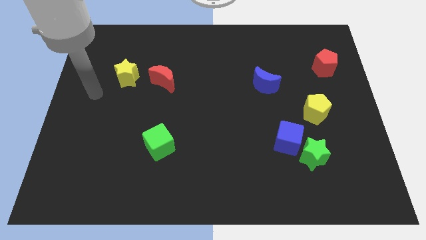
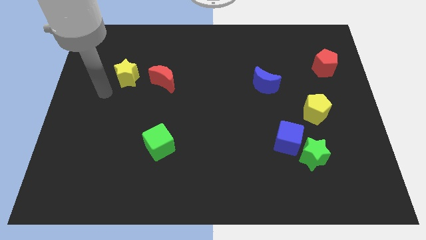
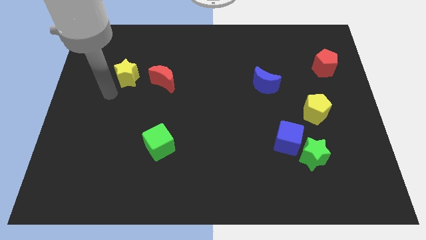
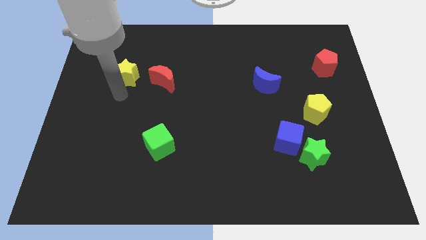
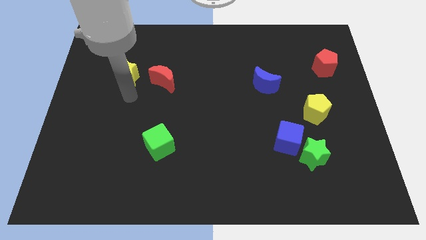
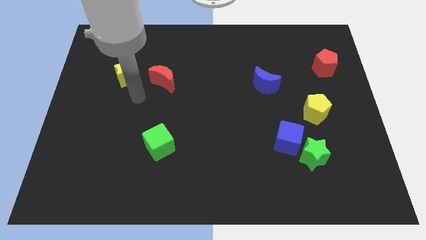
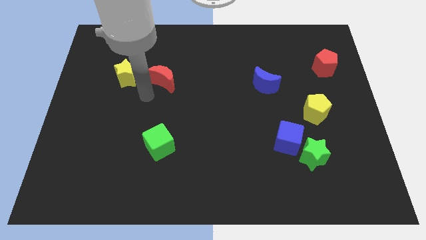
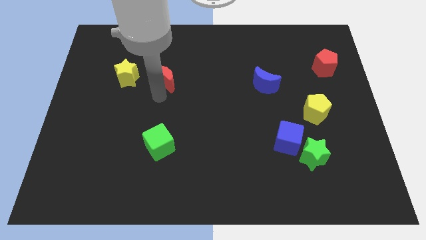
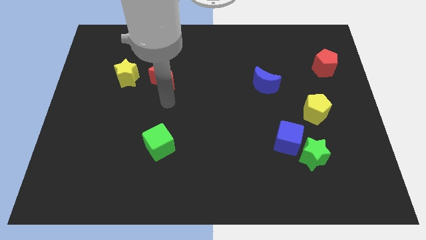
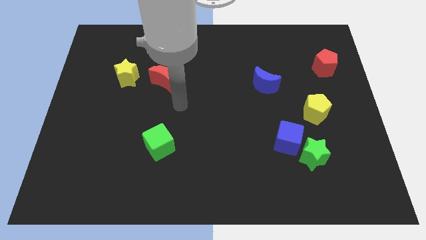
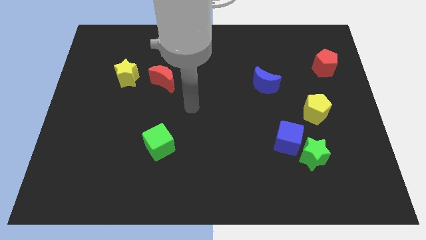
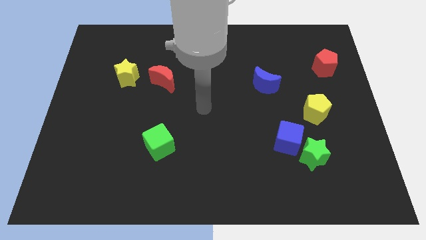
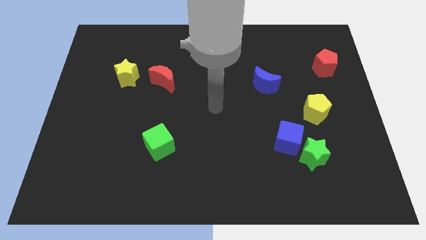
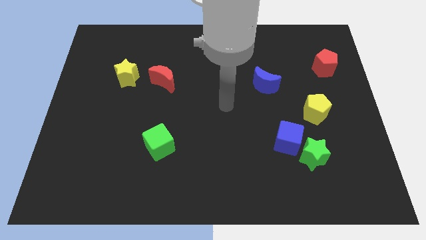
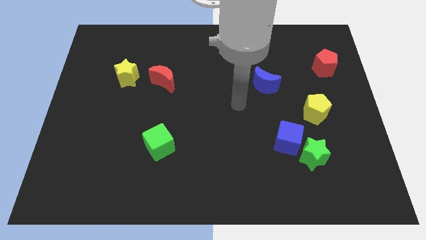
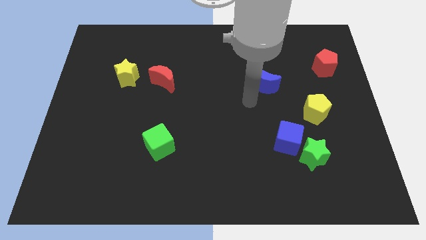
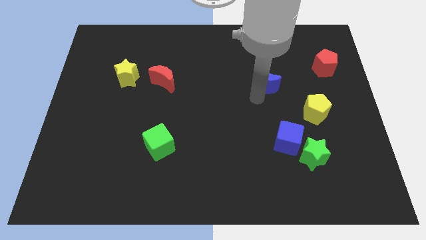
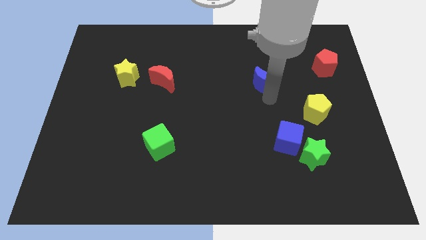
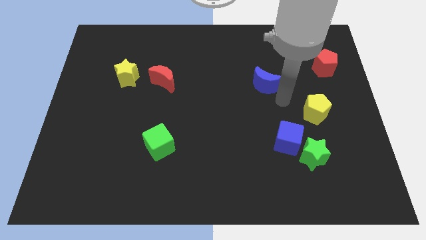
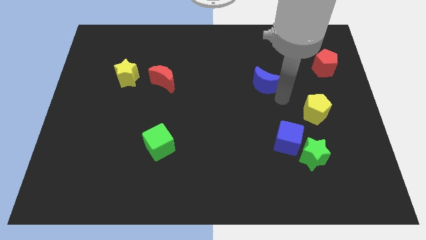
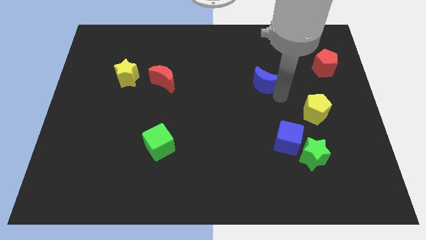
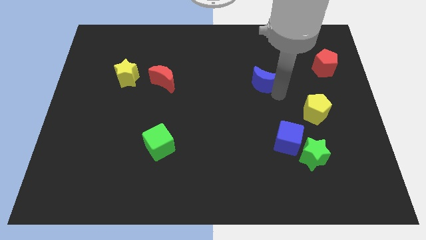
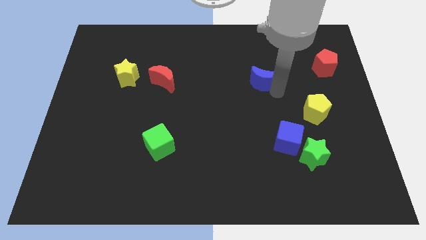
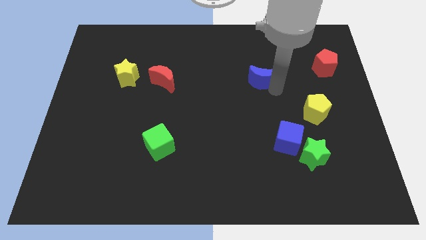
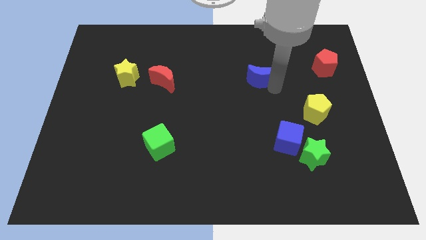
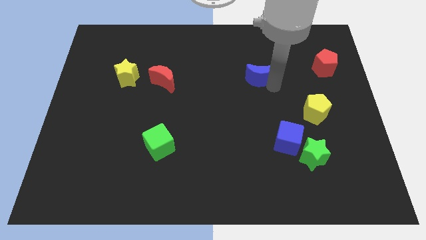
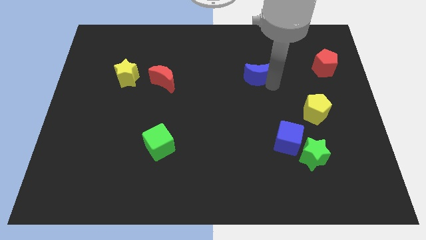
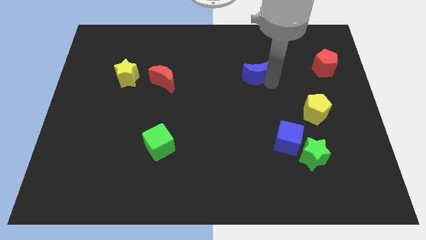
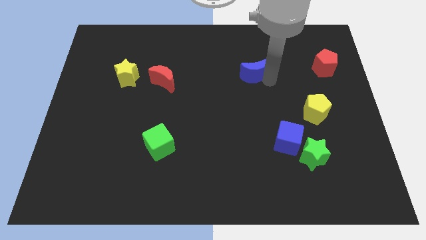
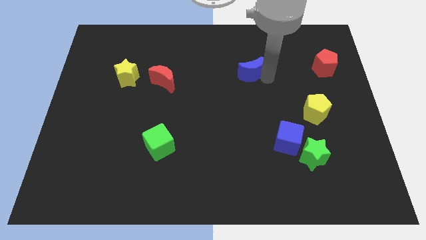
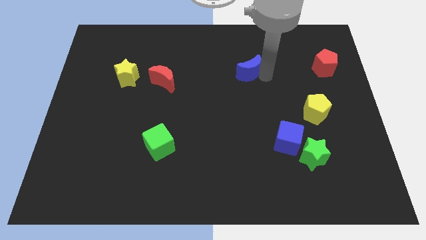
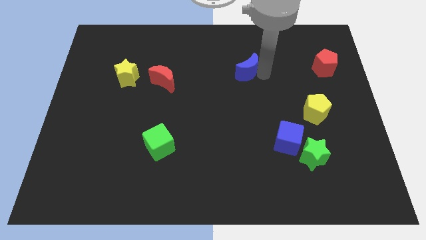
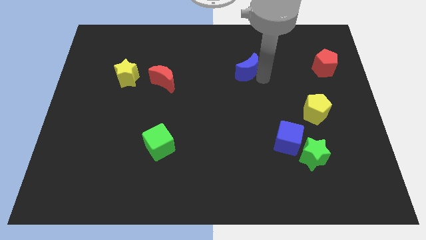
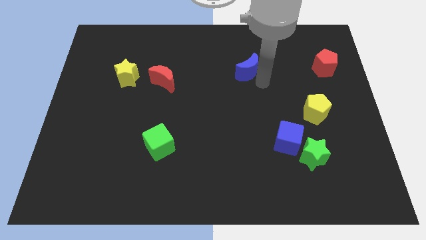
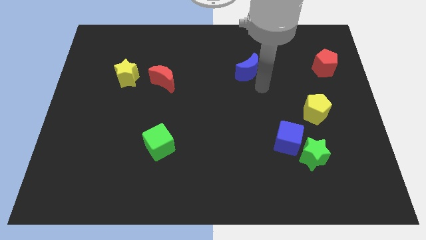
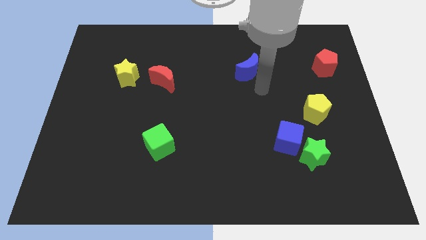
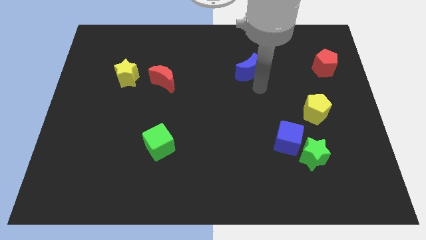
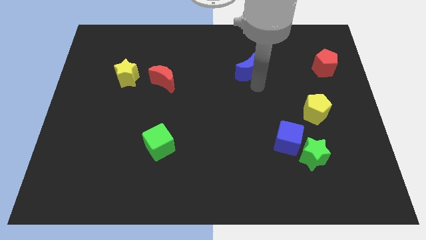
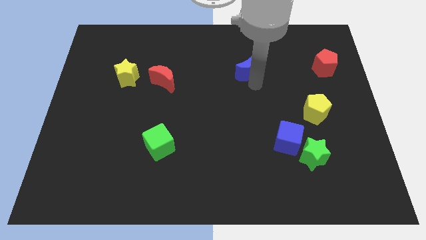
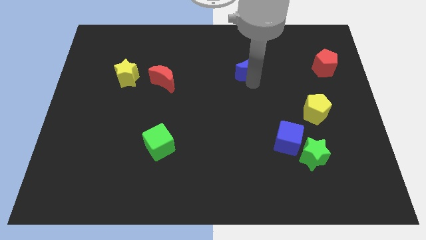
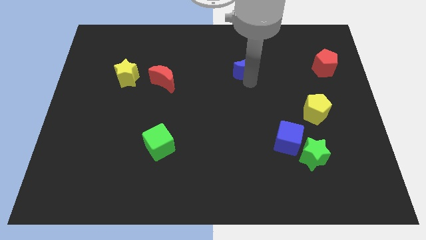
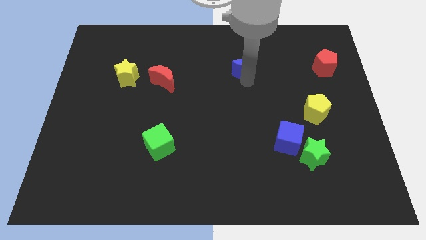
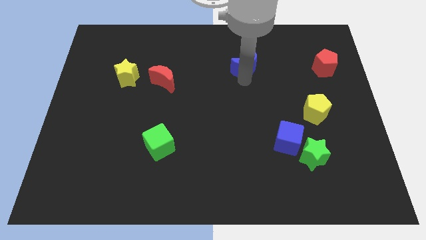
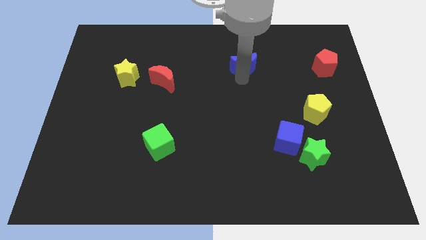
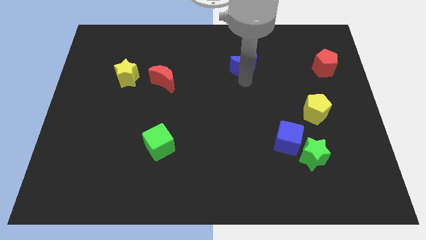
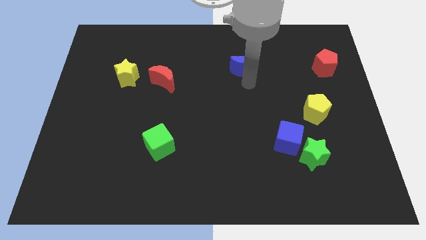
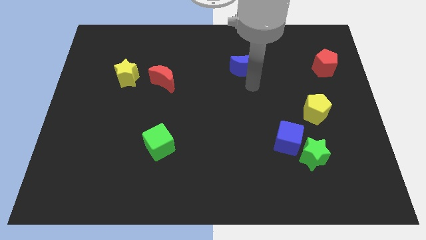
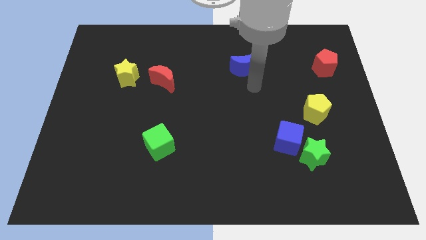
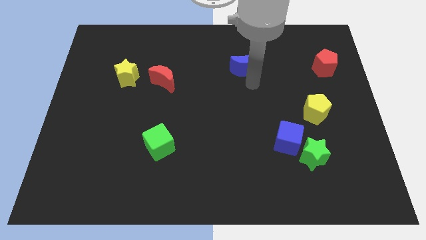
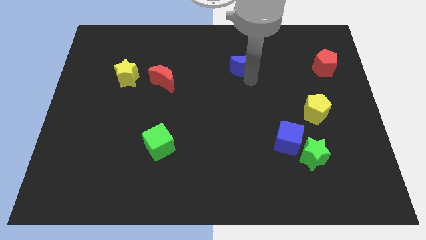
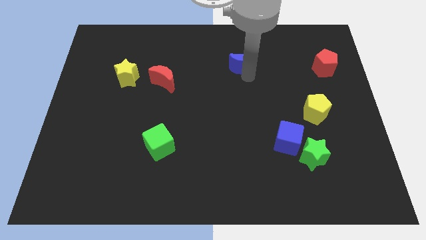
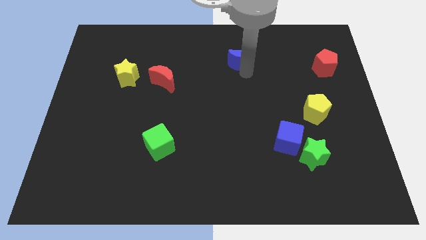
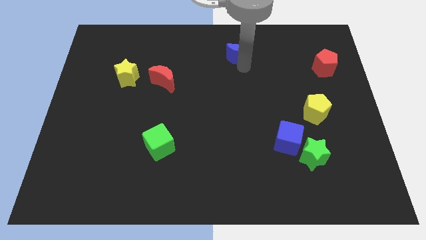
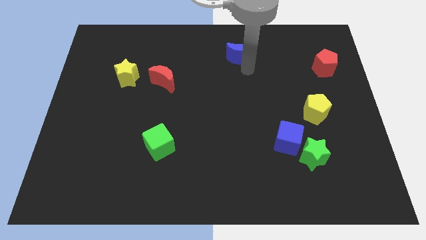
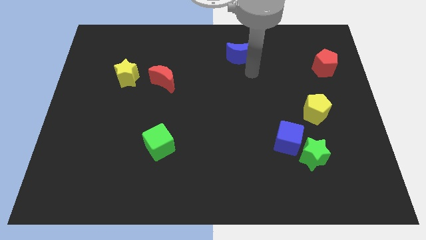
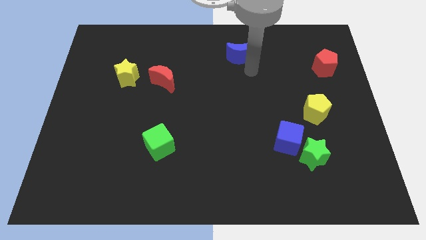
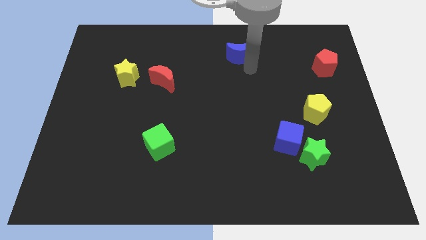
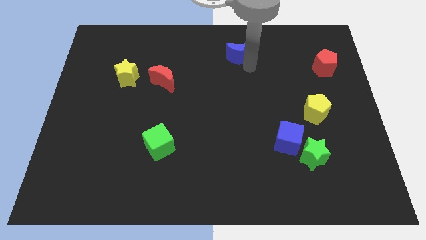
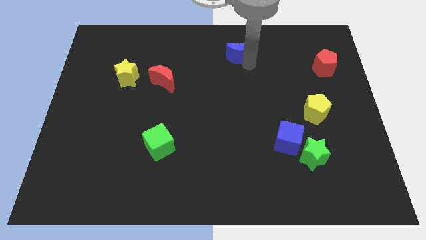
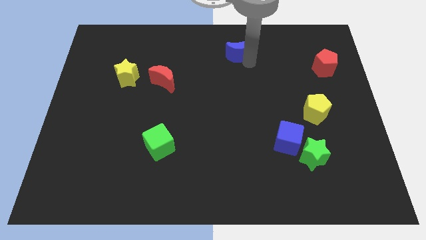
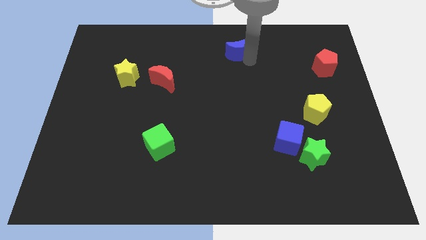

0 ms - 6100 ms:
push the blue moon to the towards your base

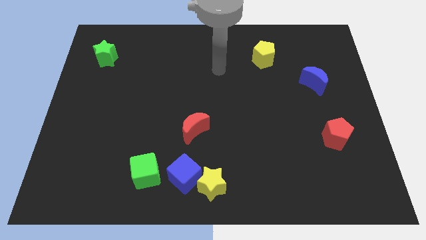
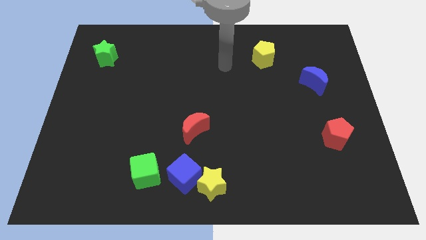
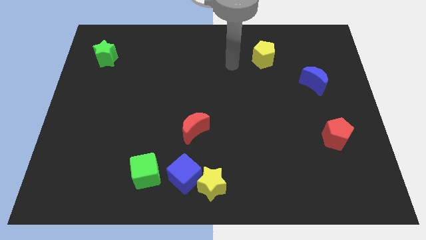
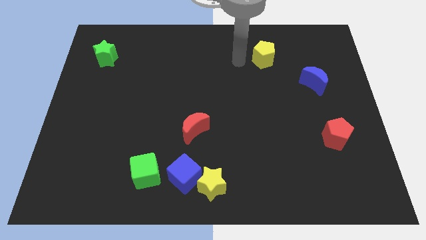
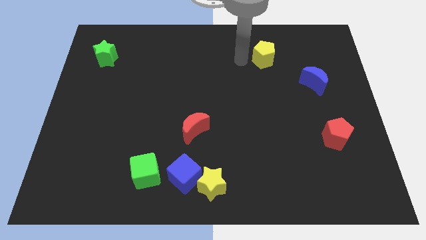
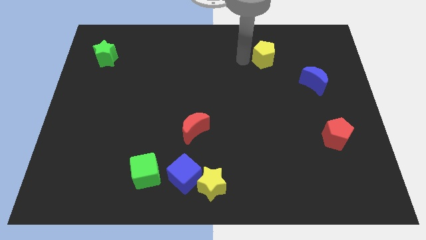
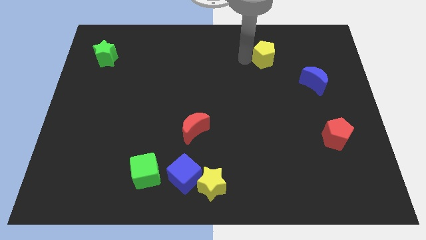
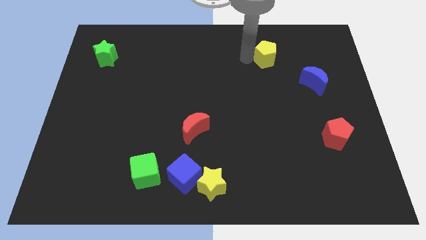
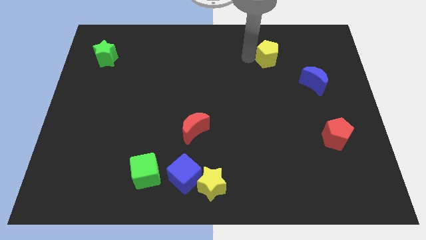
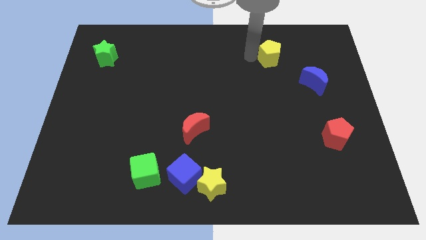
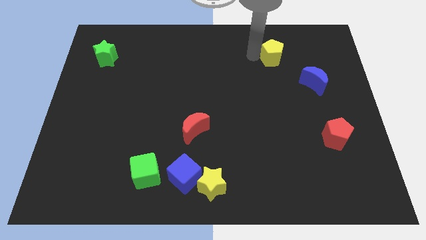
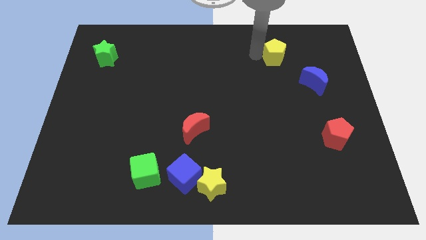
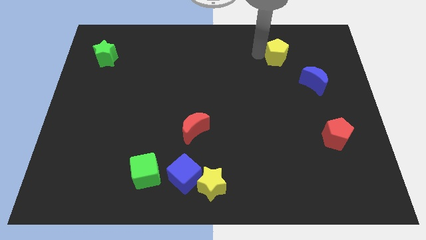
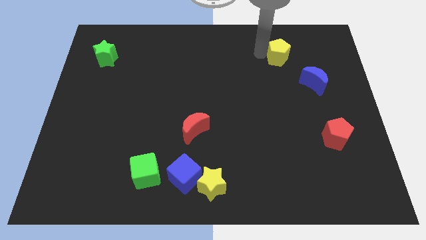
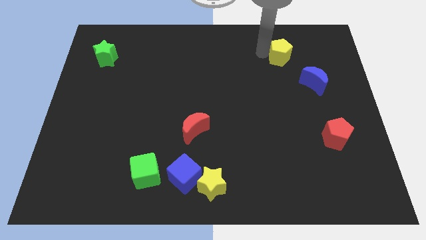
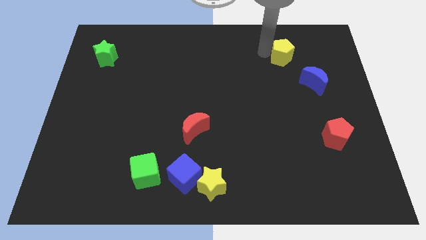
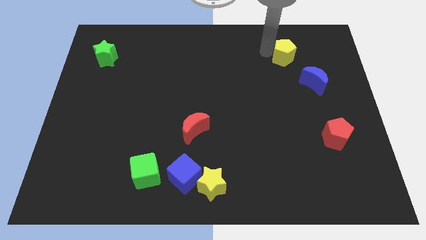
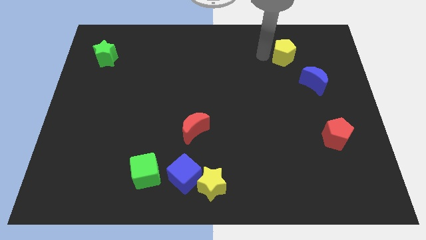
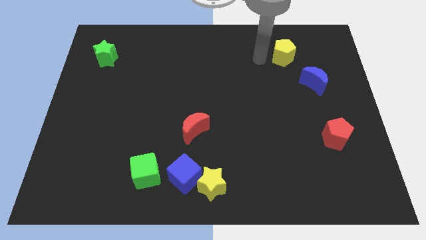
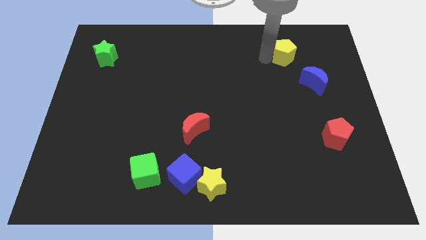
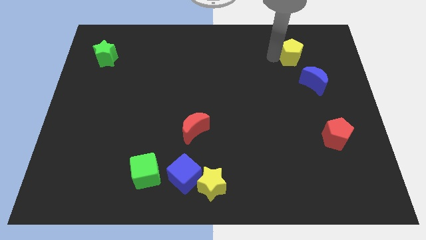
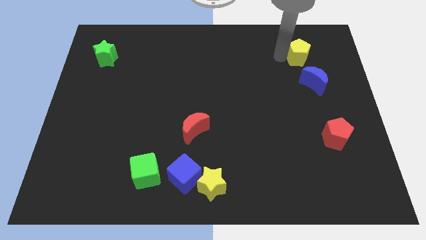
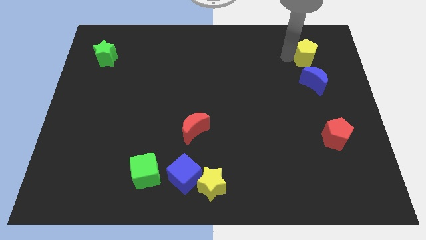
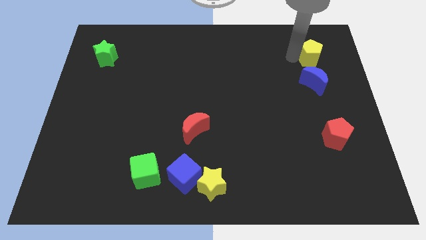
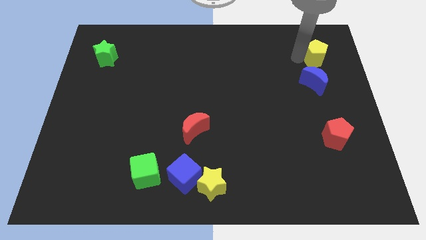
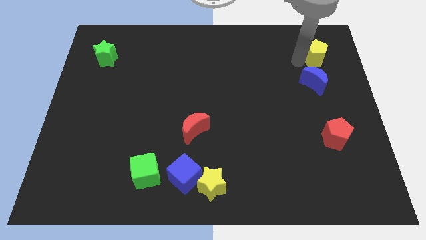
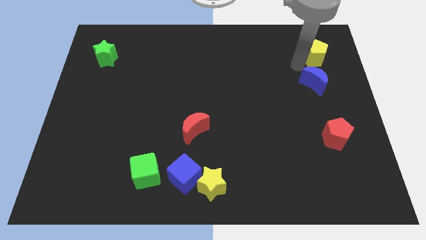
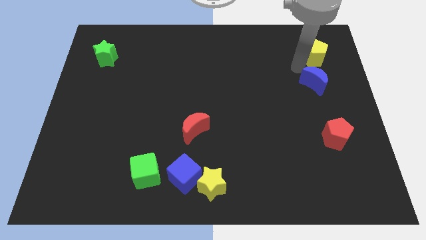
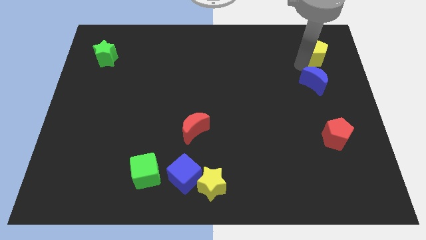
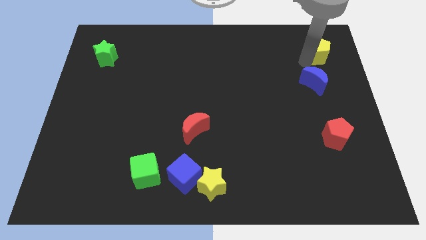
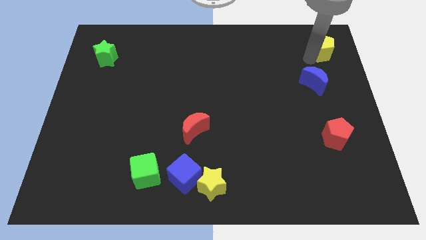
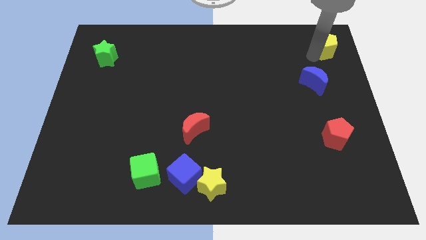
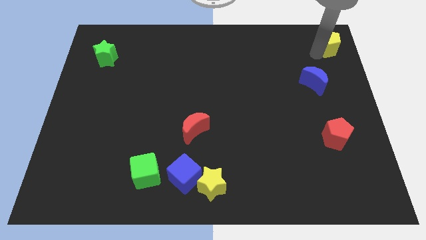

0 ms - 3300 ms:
move the yellow pentagon to the top right corner
